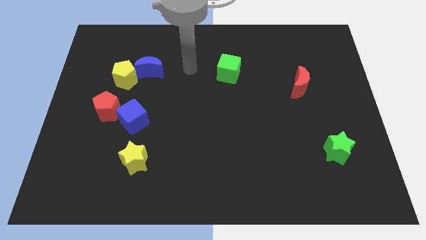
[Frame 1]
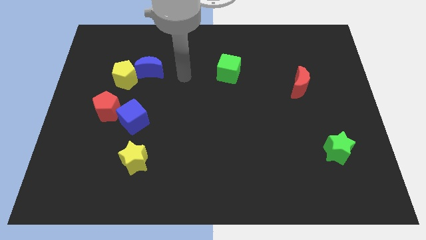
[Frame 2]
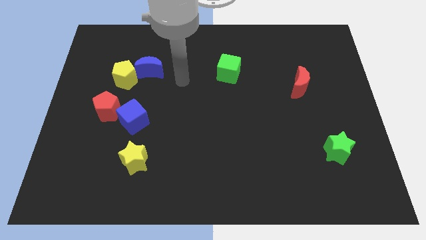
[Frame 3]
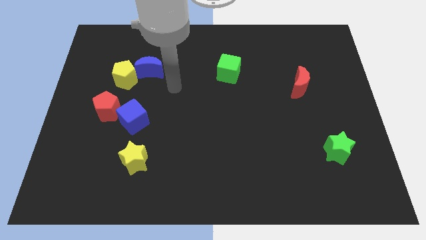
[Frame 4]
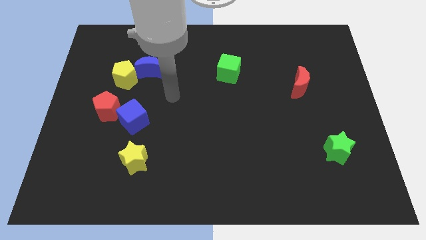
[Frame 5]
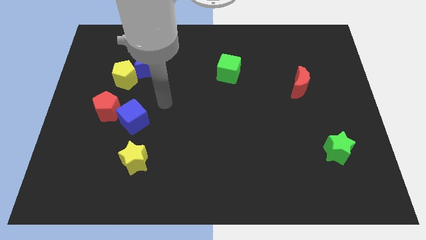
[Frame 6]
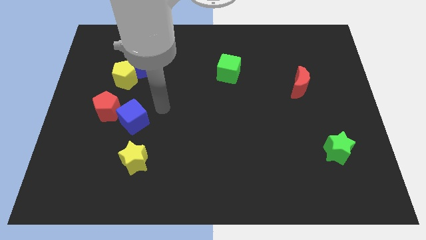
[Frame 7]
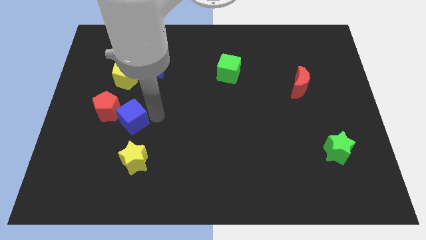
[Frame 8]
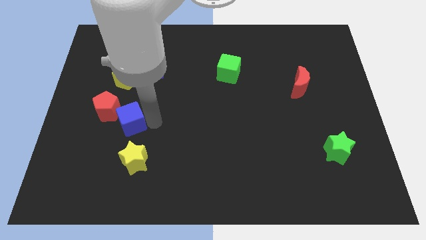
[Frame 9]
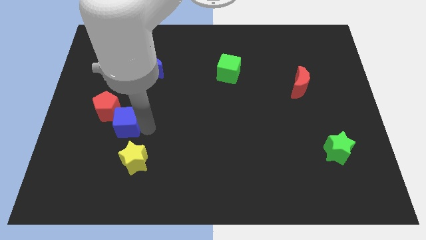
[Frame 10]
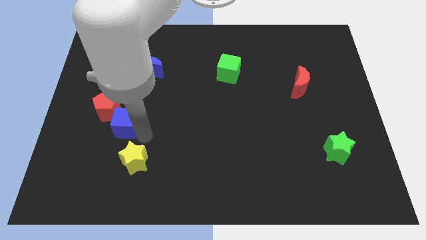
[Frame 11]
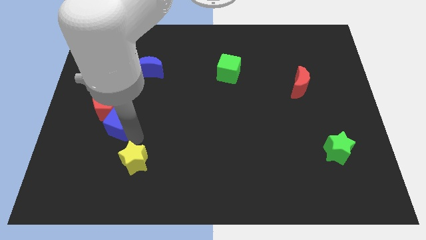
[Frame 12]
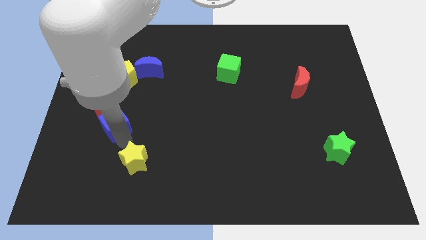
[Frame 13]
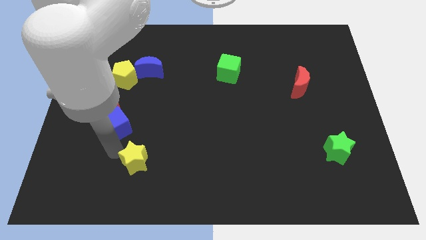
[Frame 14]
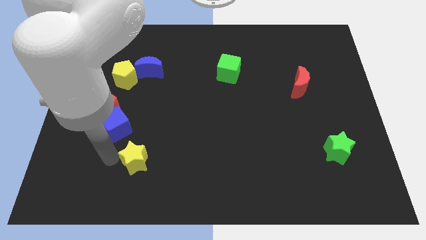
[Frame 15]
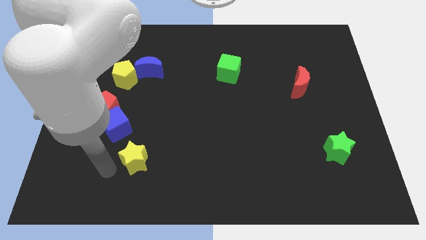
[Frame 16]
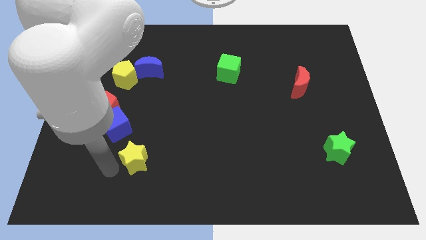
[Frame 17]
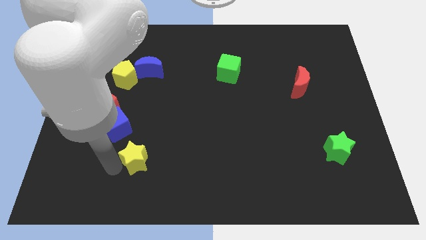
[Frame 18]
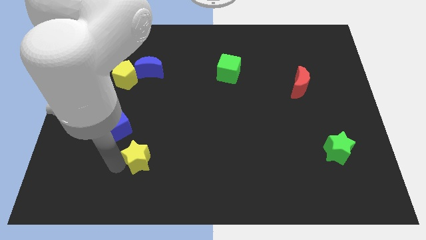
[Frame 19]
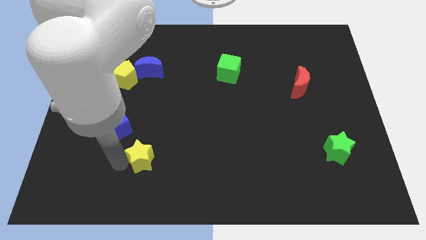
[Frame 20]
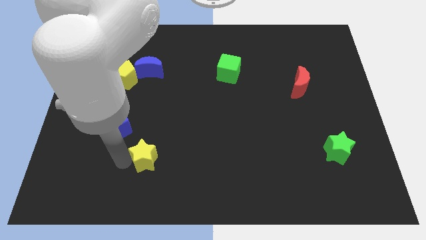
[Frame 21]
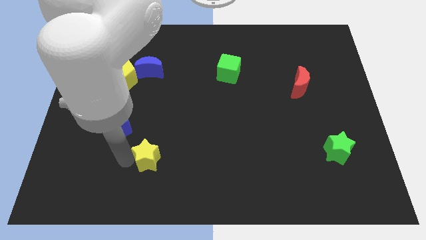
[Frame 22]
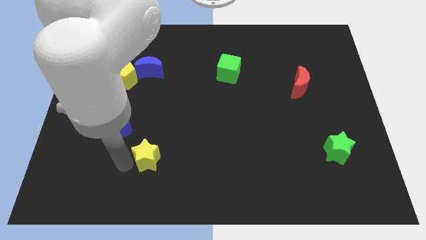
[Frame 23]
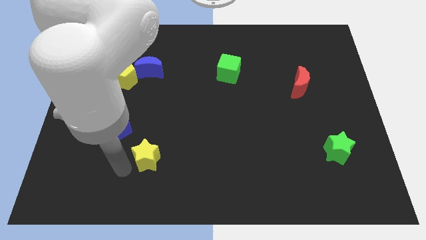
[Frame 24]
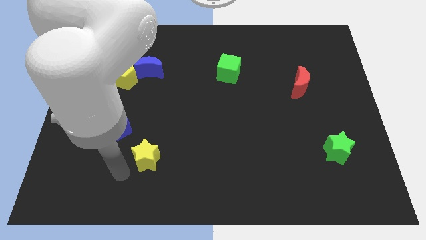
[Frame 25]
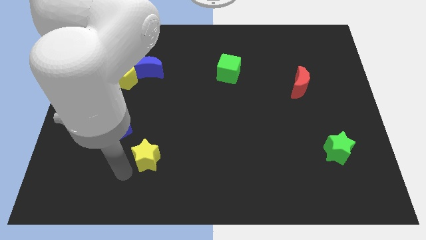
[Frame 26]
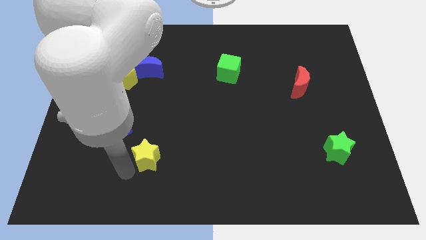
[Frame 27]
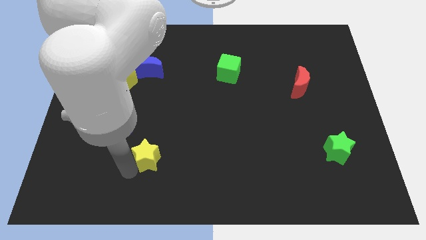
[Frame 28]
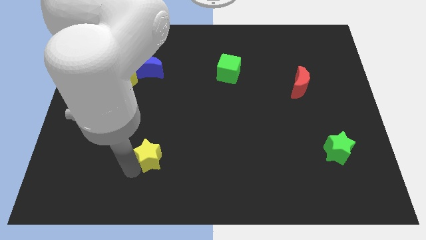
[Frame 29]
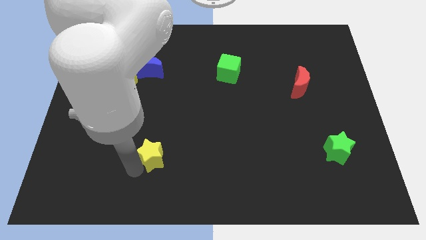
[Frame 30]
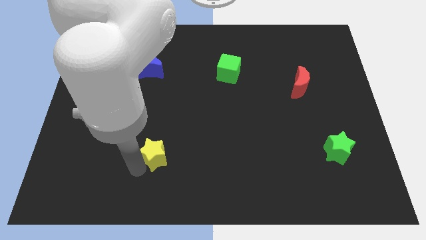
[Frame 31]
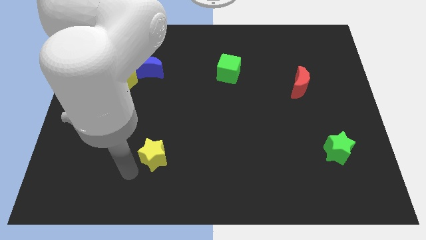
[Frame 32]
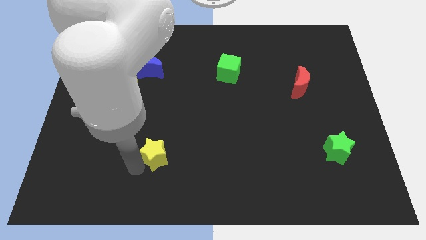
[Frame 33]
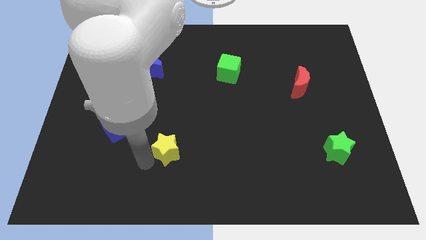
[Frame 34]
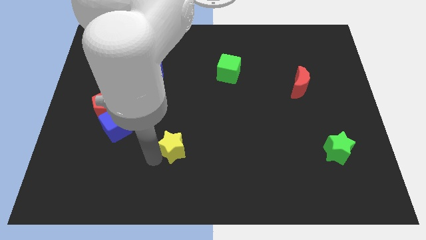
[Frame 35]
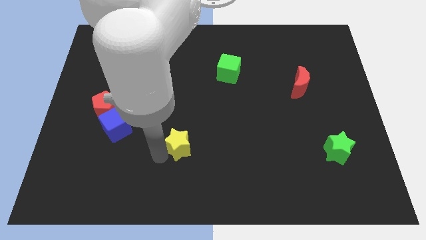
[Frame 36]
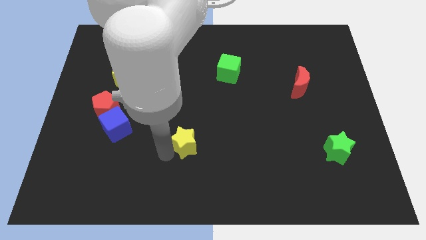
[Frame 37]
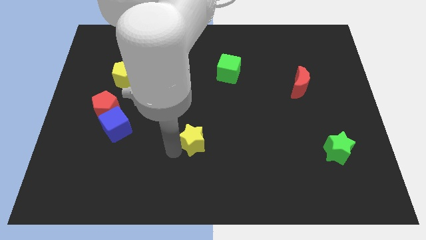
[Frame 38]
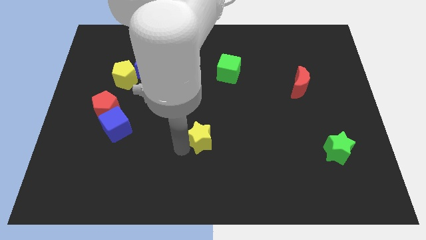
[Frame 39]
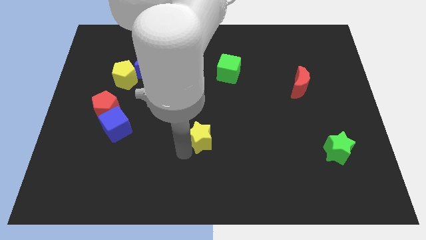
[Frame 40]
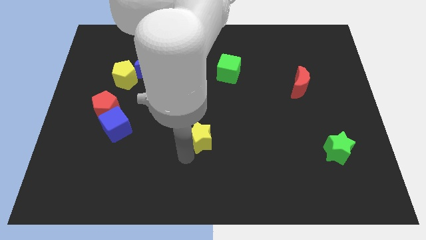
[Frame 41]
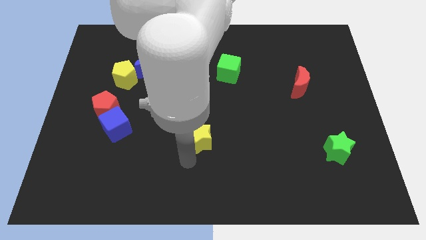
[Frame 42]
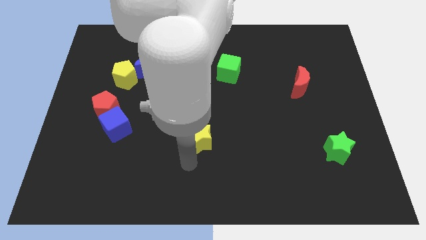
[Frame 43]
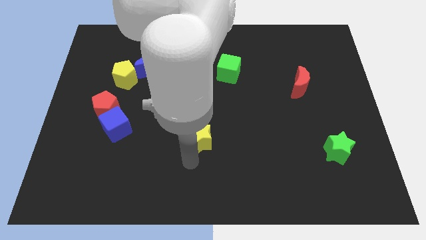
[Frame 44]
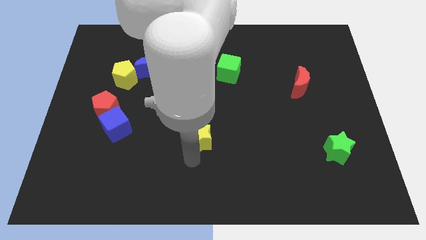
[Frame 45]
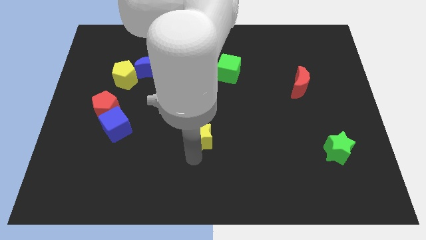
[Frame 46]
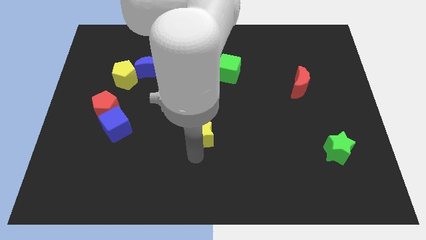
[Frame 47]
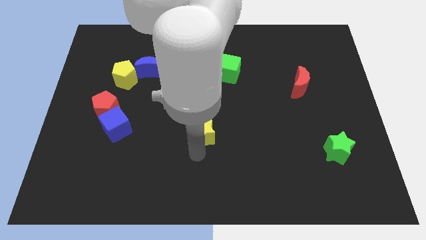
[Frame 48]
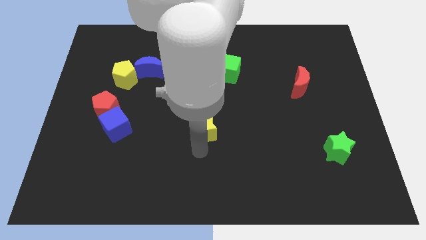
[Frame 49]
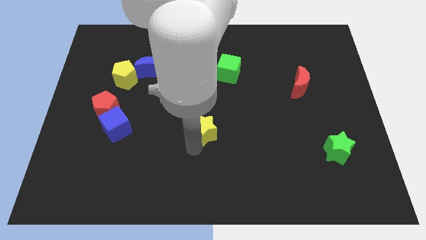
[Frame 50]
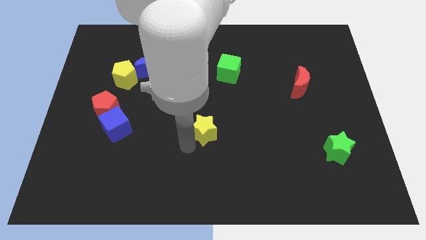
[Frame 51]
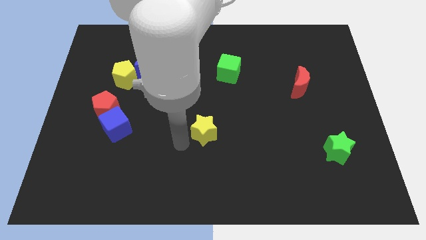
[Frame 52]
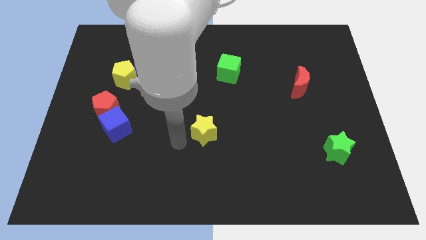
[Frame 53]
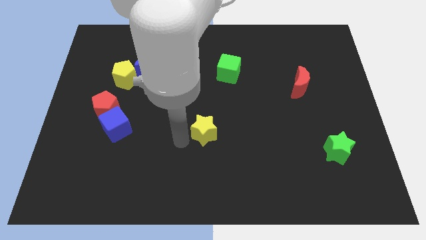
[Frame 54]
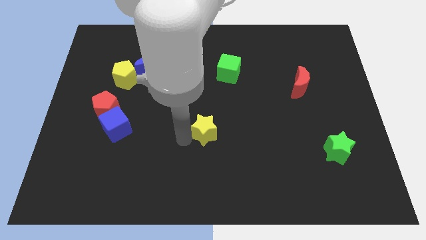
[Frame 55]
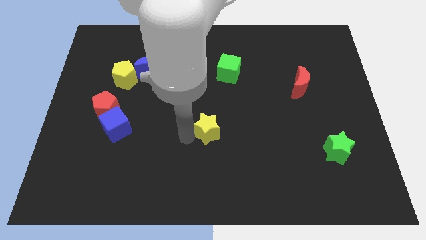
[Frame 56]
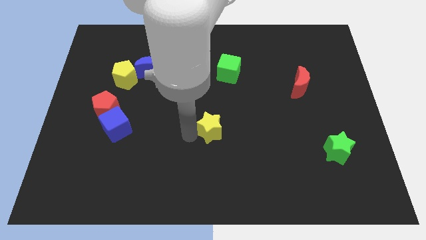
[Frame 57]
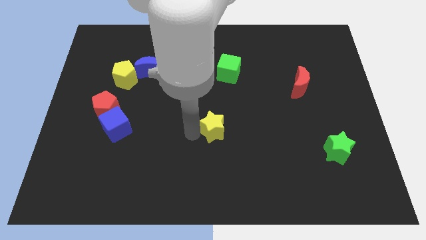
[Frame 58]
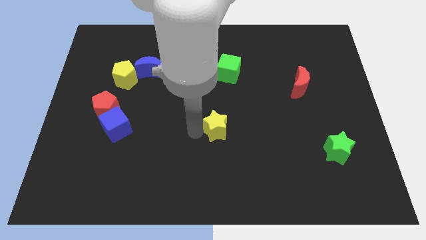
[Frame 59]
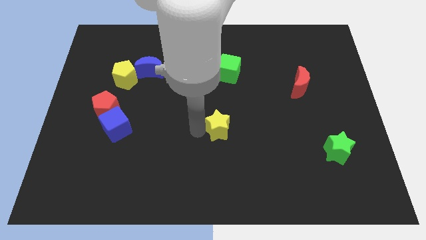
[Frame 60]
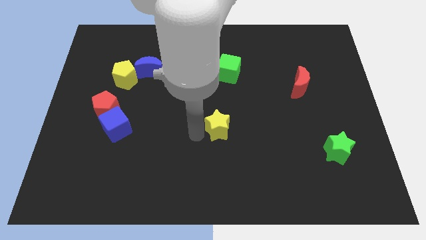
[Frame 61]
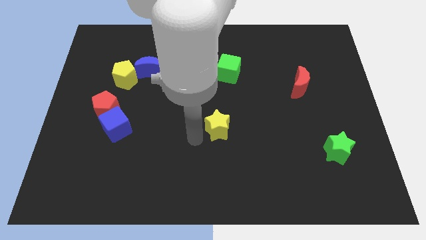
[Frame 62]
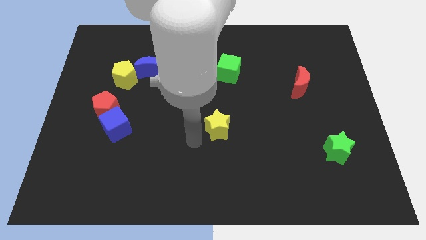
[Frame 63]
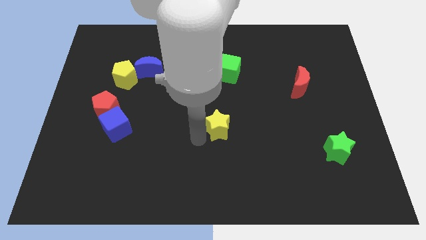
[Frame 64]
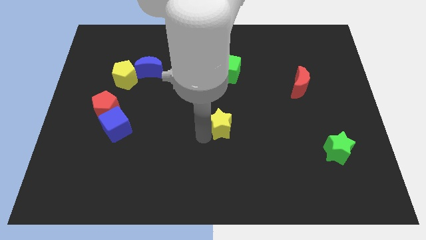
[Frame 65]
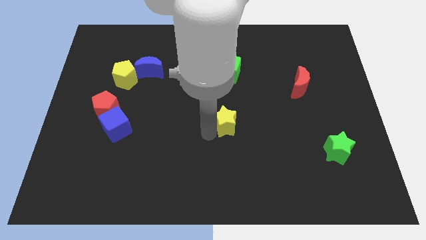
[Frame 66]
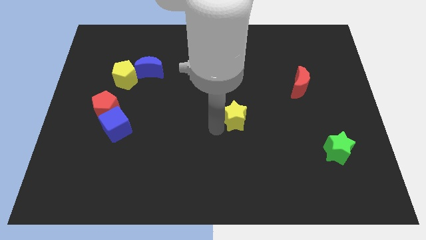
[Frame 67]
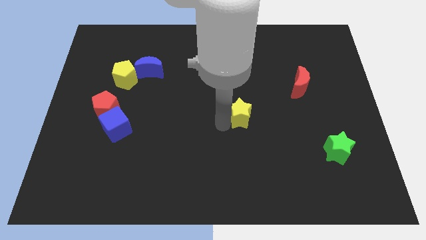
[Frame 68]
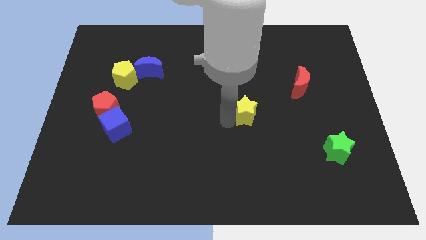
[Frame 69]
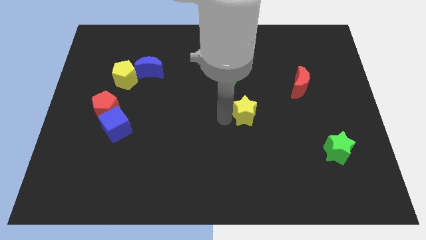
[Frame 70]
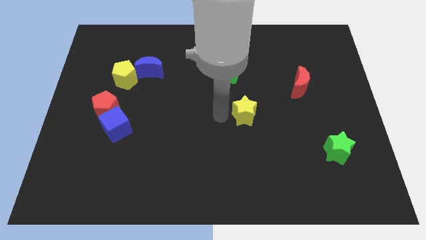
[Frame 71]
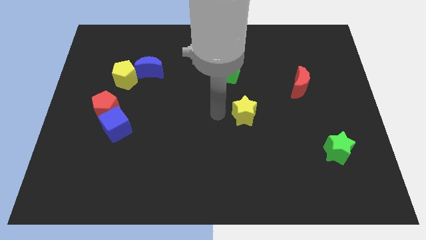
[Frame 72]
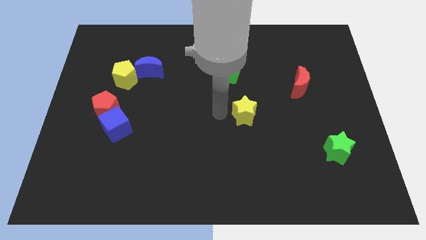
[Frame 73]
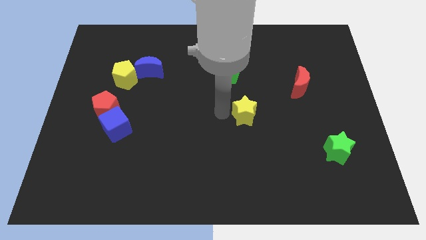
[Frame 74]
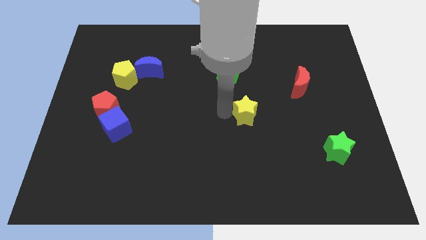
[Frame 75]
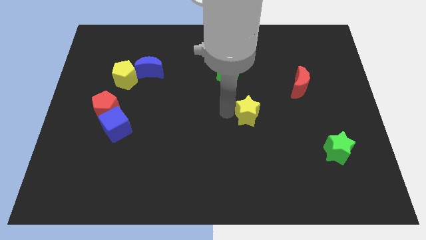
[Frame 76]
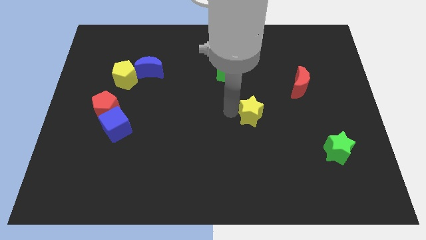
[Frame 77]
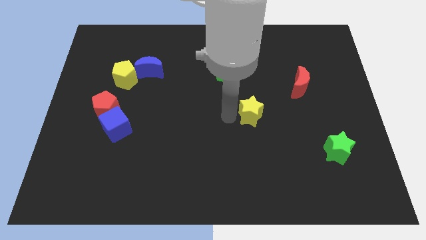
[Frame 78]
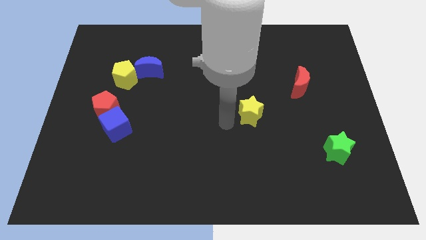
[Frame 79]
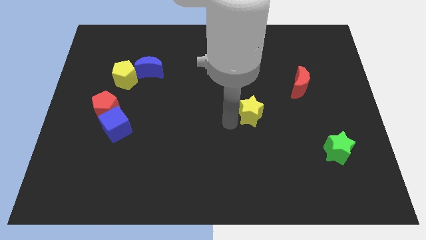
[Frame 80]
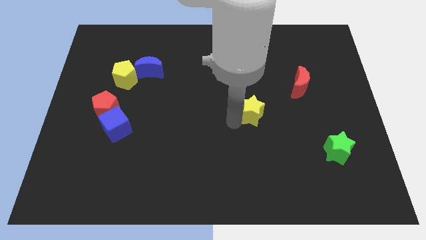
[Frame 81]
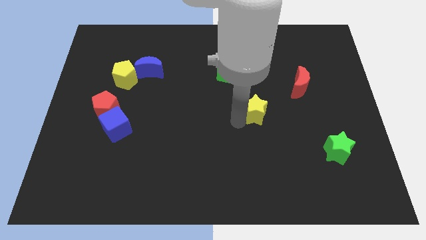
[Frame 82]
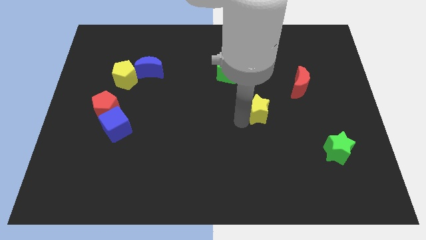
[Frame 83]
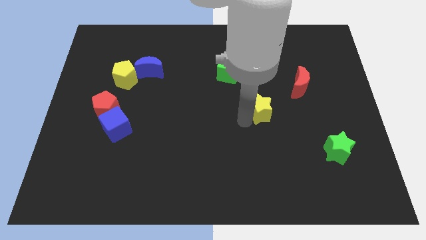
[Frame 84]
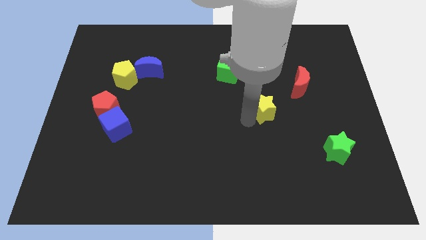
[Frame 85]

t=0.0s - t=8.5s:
slide the yellow star to the bottom left side of the red moon
